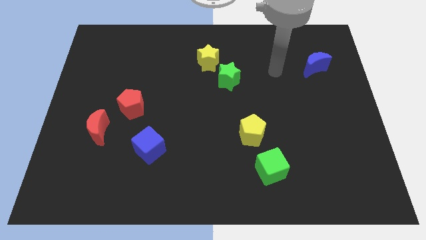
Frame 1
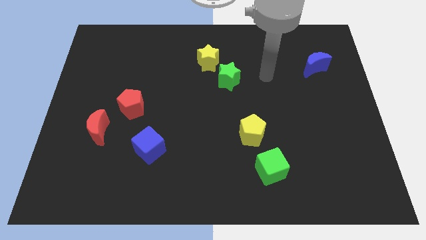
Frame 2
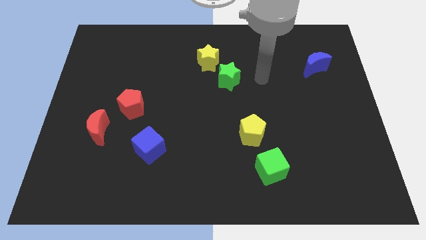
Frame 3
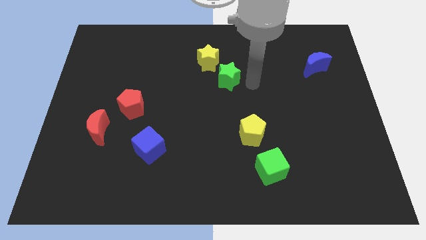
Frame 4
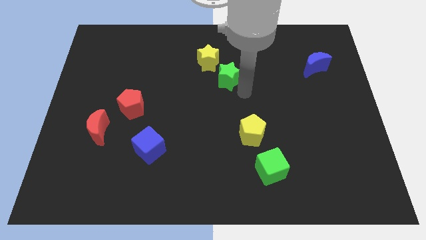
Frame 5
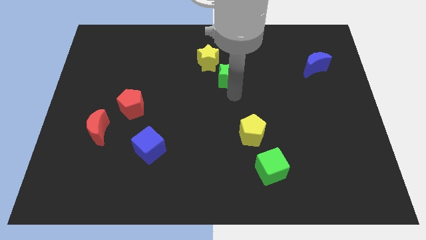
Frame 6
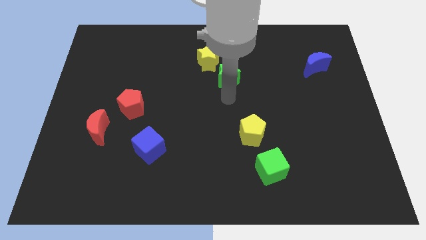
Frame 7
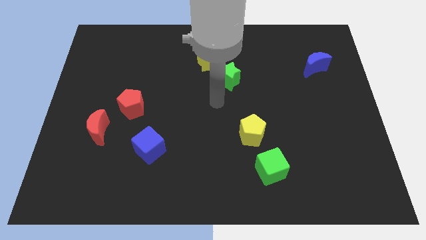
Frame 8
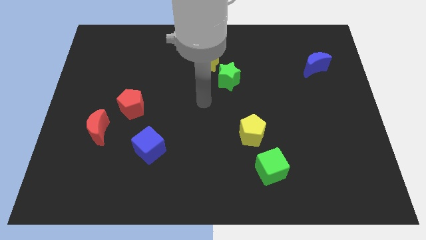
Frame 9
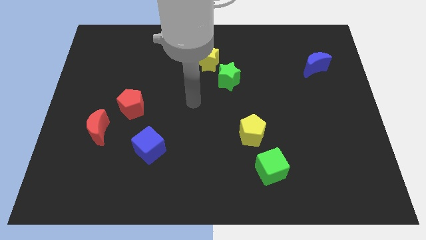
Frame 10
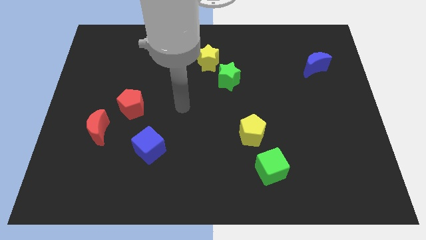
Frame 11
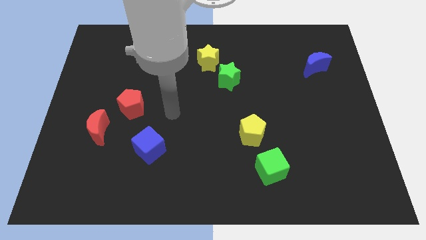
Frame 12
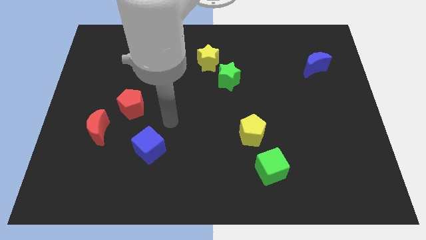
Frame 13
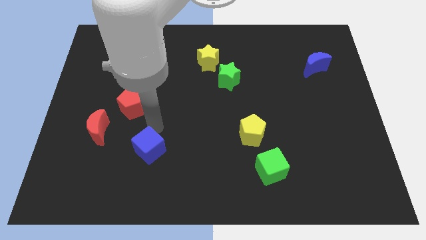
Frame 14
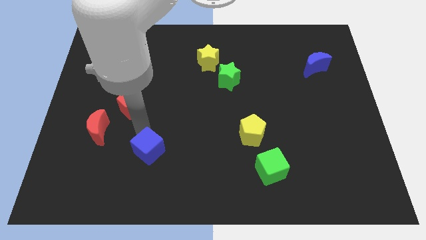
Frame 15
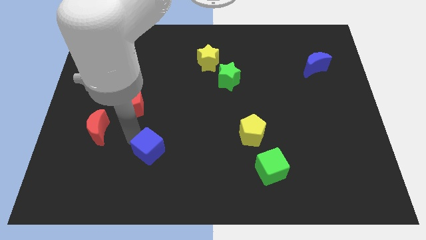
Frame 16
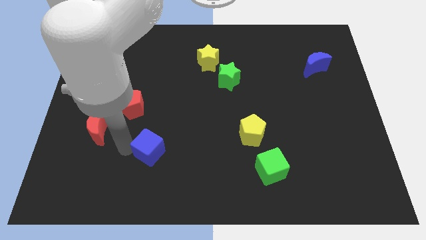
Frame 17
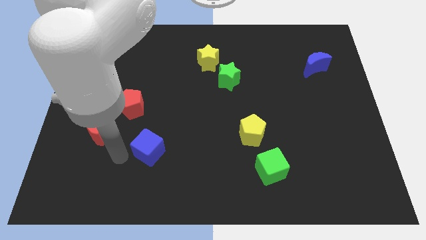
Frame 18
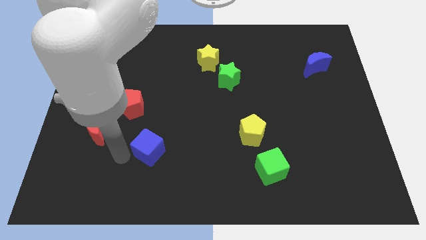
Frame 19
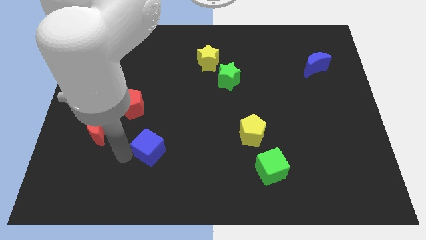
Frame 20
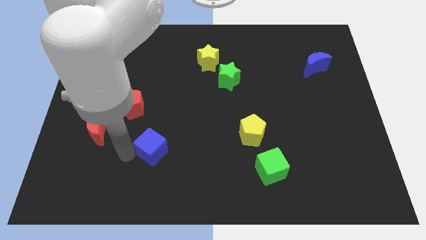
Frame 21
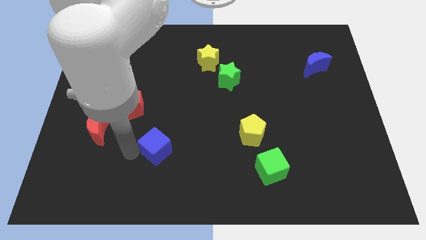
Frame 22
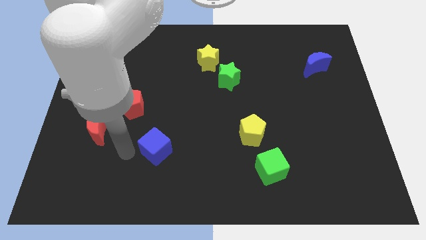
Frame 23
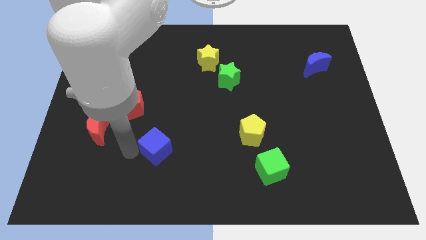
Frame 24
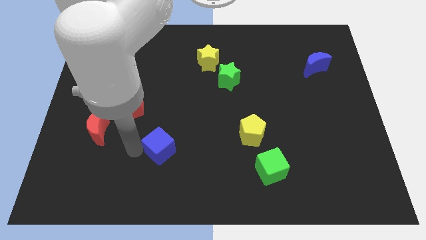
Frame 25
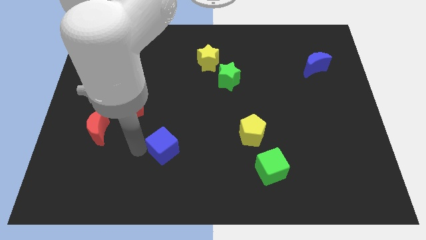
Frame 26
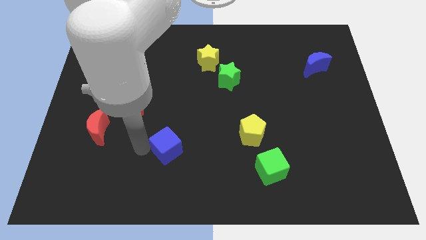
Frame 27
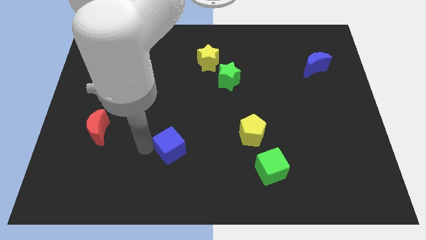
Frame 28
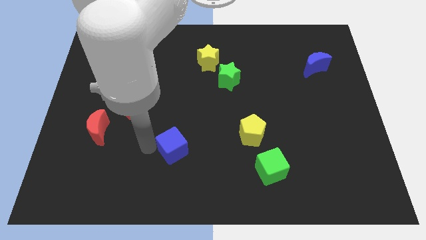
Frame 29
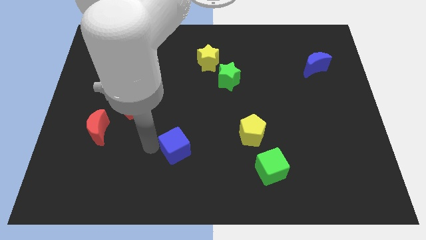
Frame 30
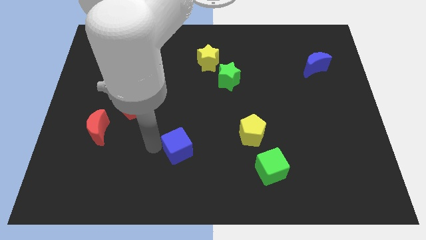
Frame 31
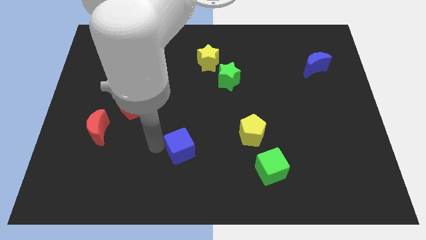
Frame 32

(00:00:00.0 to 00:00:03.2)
slightly push the blue cube to the right

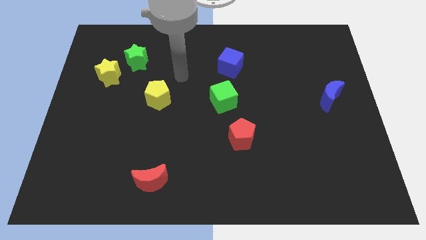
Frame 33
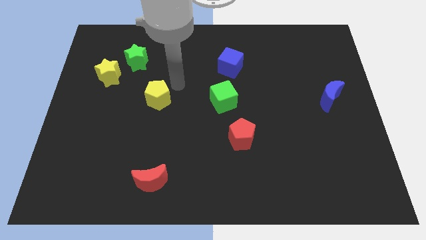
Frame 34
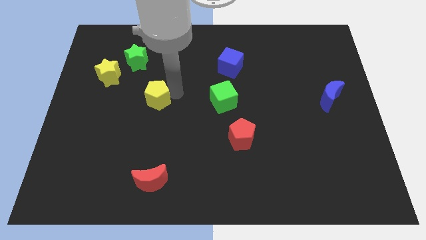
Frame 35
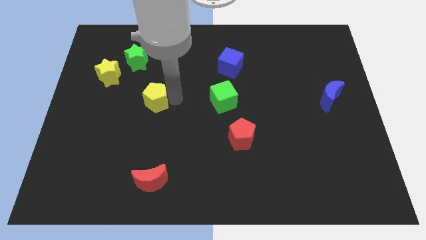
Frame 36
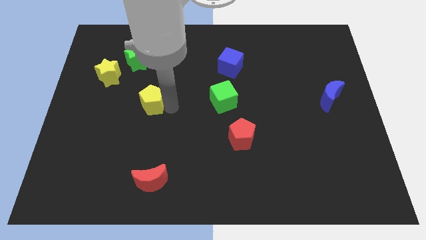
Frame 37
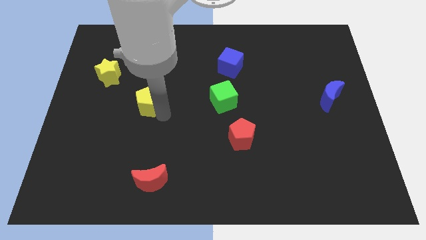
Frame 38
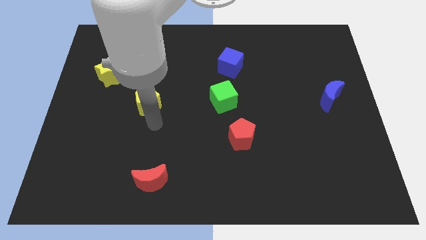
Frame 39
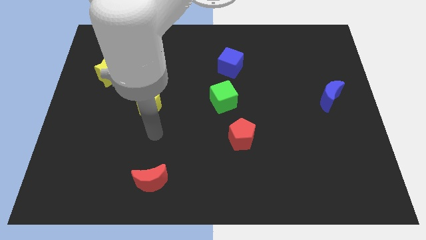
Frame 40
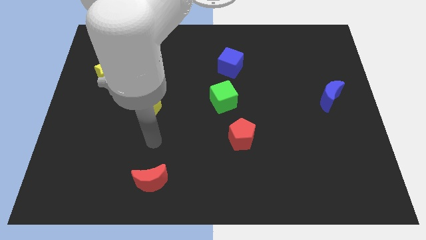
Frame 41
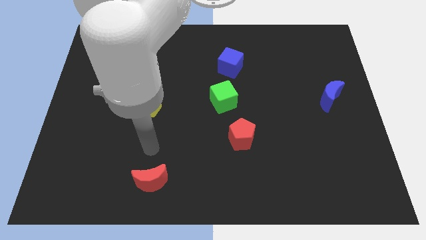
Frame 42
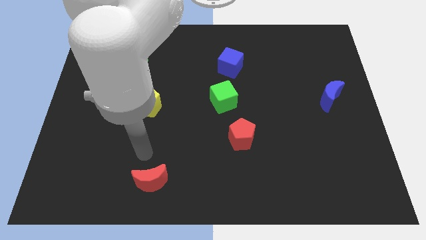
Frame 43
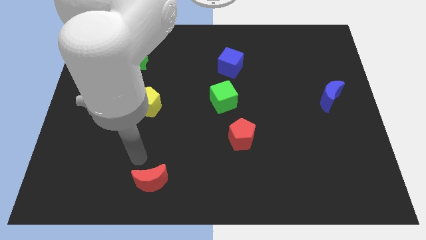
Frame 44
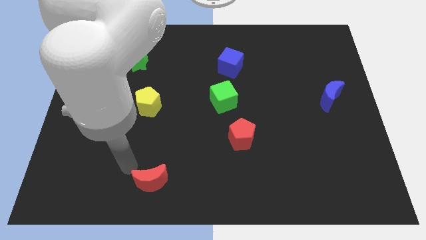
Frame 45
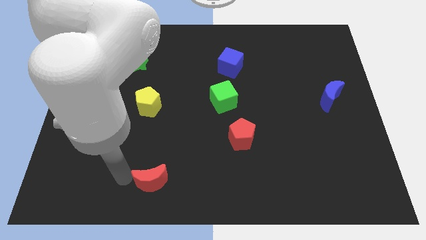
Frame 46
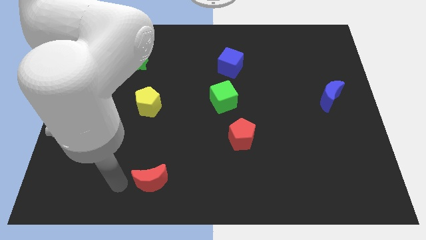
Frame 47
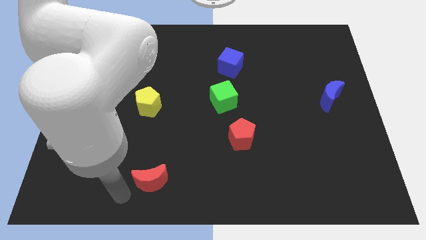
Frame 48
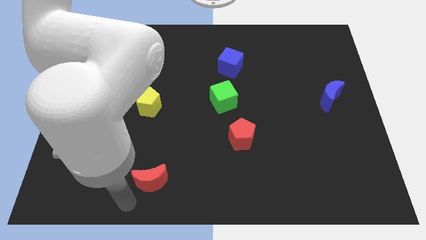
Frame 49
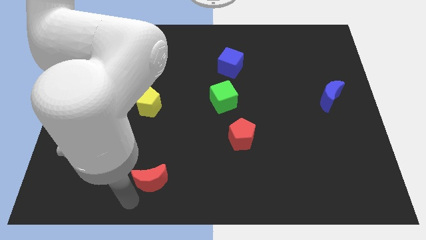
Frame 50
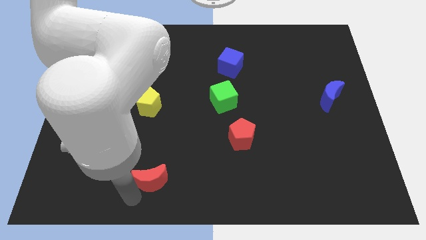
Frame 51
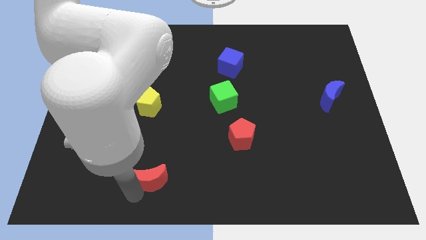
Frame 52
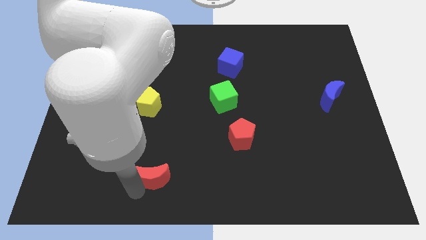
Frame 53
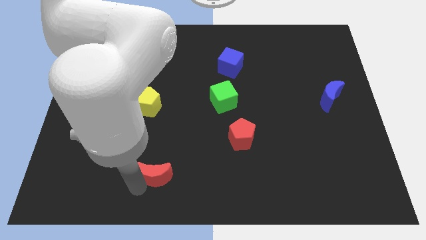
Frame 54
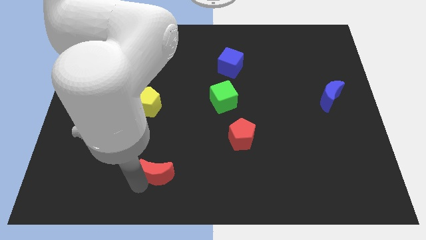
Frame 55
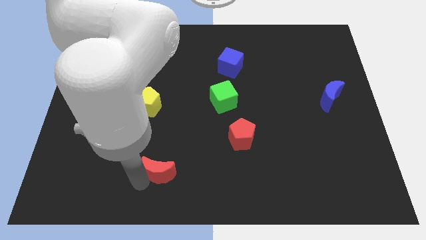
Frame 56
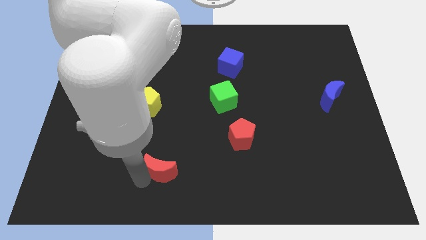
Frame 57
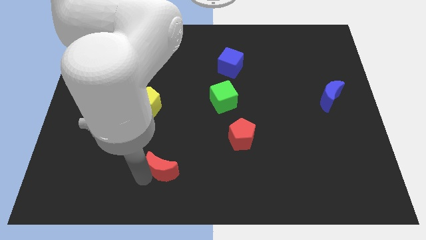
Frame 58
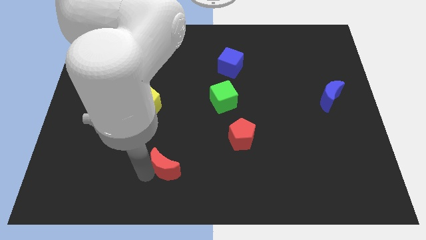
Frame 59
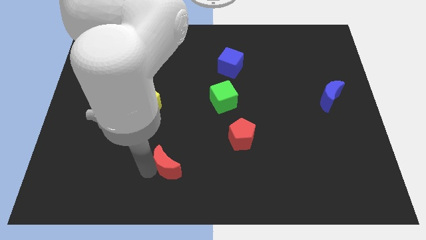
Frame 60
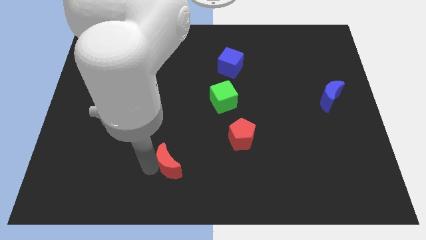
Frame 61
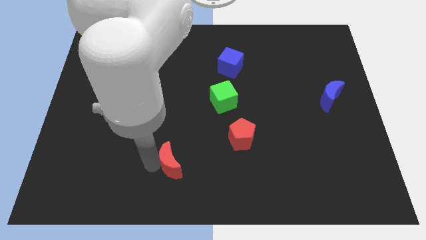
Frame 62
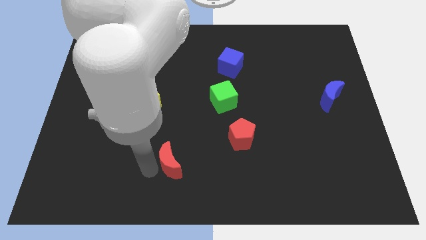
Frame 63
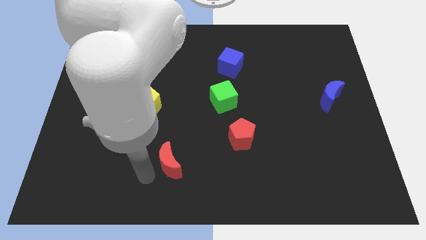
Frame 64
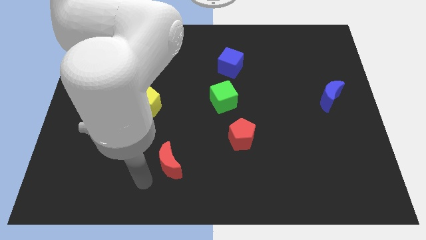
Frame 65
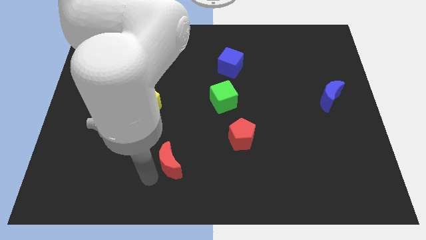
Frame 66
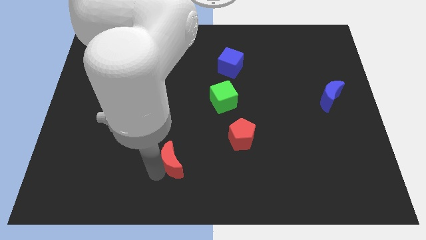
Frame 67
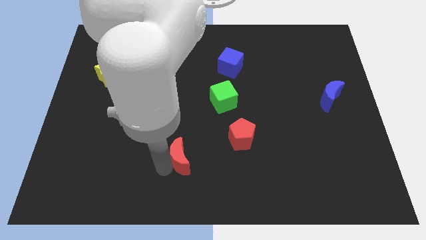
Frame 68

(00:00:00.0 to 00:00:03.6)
slightly push the red moon upwards and then right

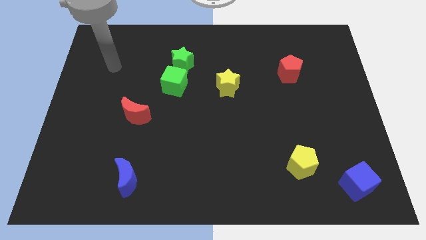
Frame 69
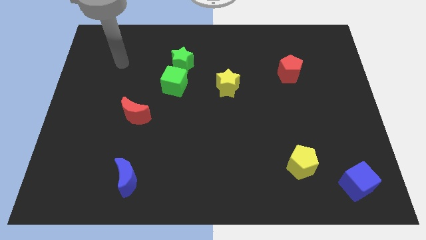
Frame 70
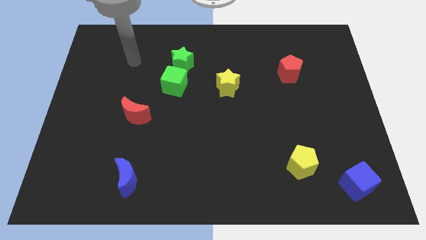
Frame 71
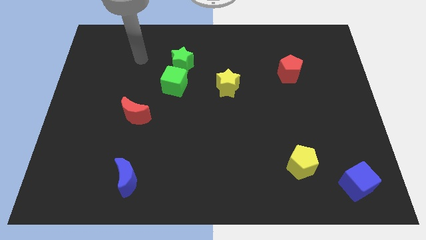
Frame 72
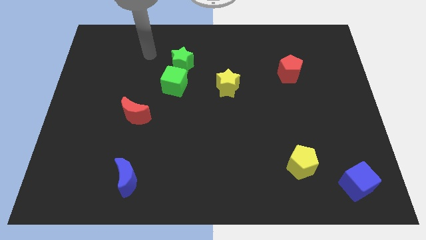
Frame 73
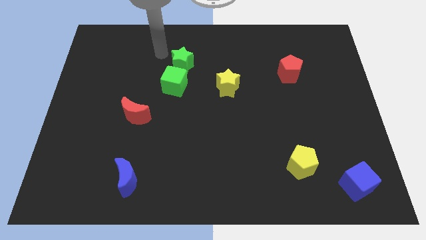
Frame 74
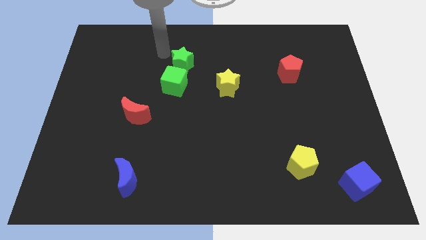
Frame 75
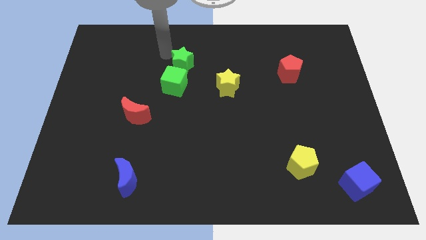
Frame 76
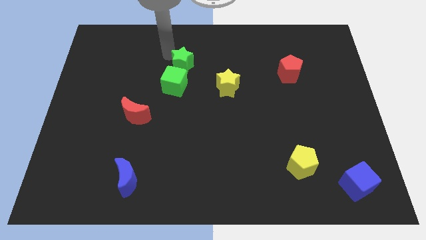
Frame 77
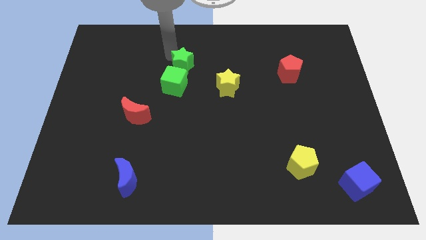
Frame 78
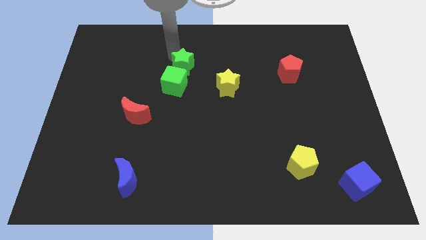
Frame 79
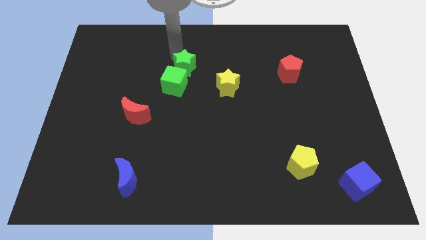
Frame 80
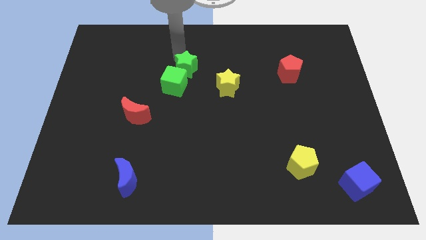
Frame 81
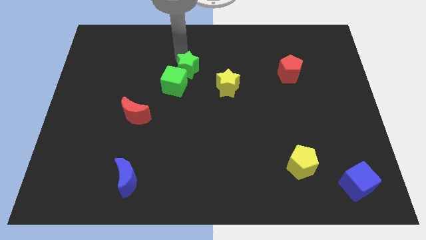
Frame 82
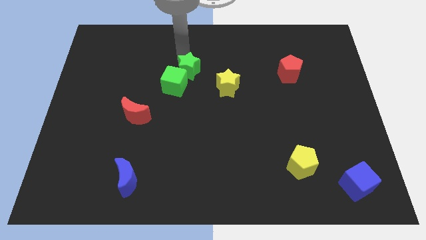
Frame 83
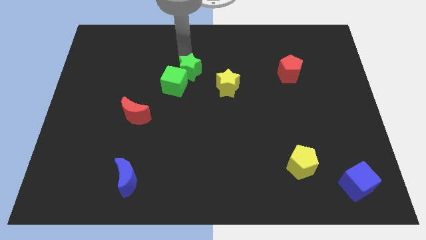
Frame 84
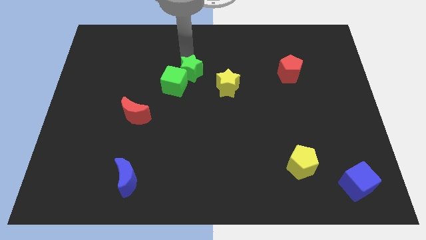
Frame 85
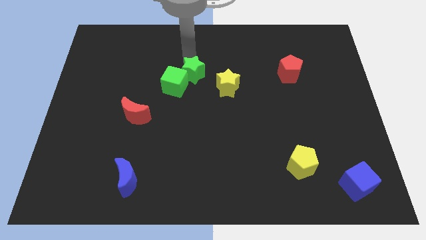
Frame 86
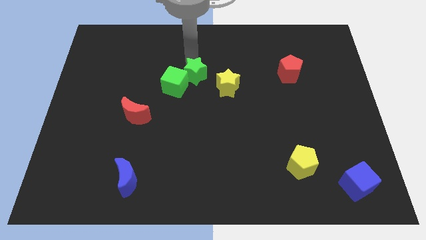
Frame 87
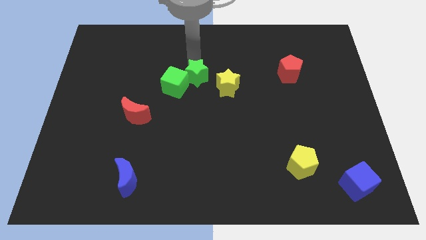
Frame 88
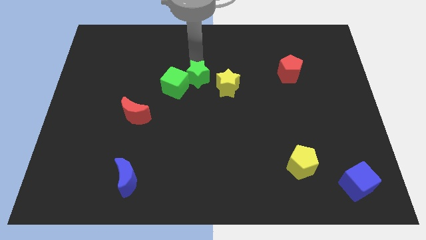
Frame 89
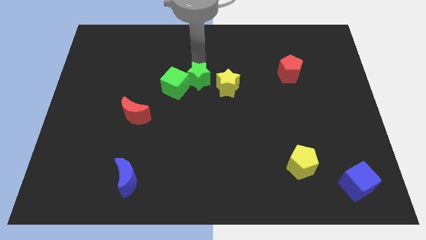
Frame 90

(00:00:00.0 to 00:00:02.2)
push the green star down and to the right diagonally a bit
